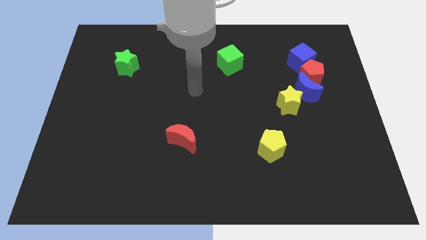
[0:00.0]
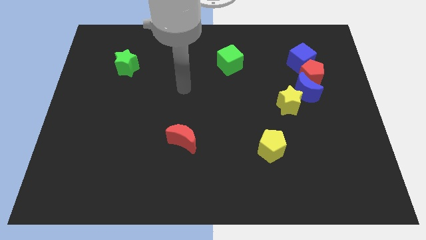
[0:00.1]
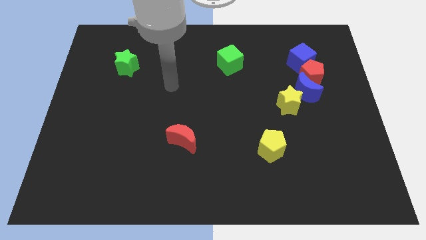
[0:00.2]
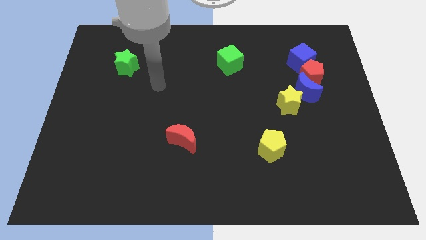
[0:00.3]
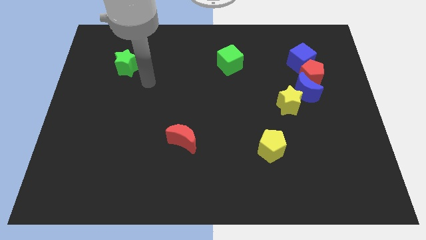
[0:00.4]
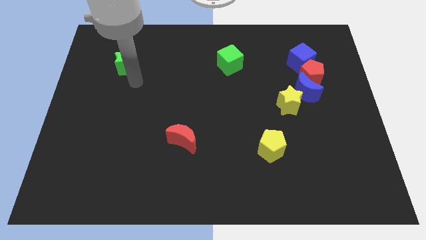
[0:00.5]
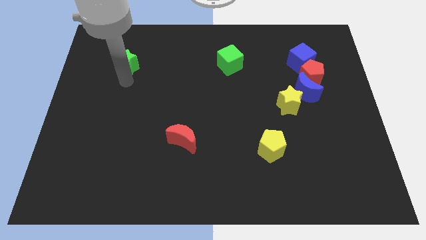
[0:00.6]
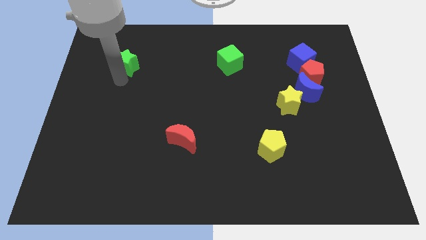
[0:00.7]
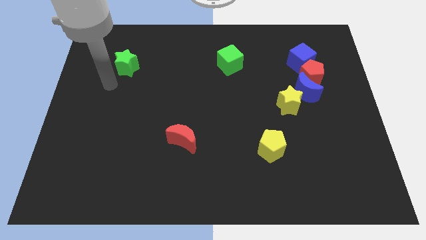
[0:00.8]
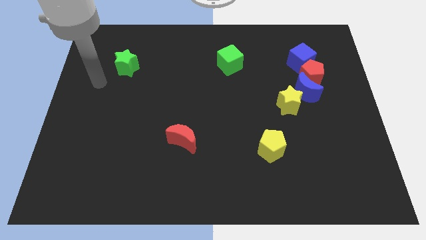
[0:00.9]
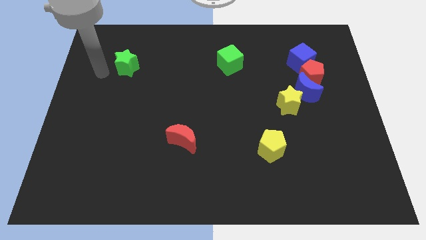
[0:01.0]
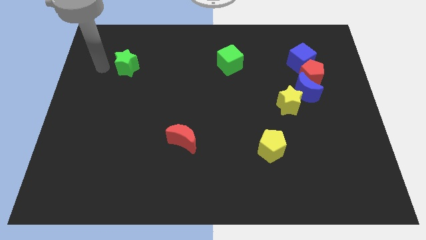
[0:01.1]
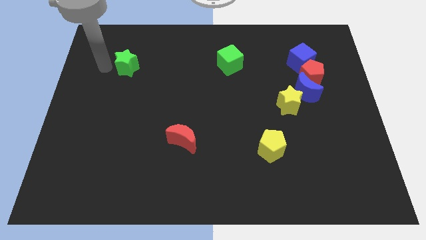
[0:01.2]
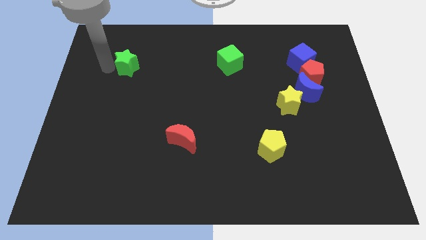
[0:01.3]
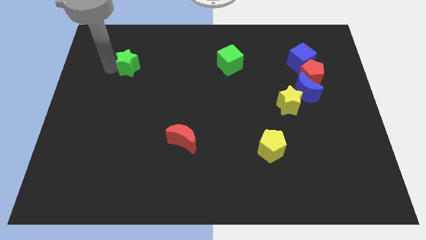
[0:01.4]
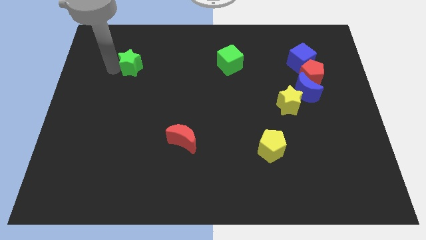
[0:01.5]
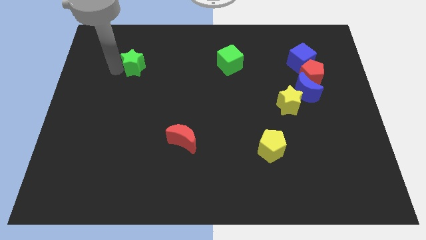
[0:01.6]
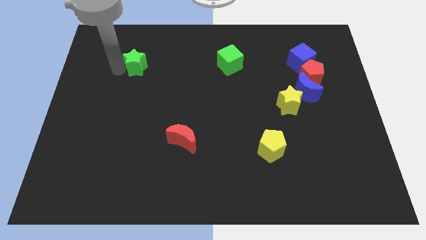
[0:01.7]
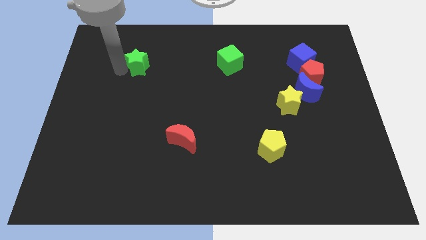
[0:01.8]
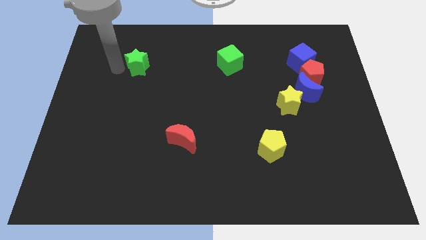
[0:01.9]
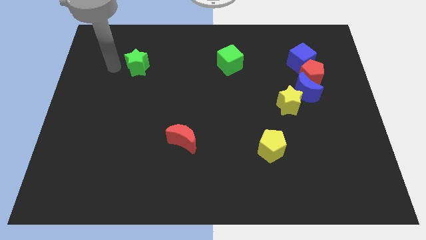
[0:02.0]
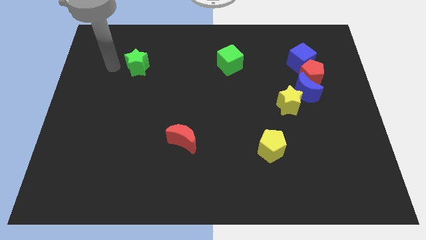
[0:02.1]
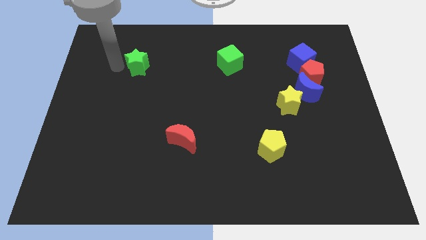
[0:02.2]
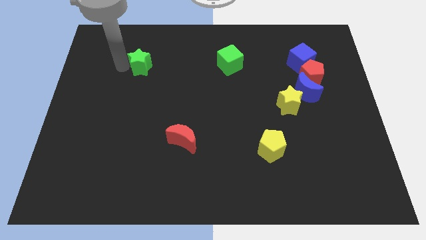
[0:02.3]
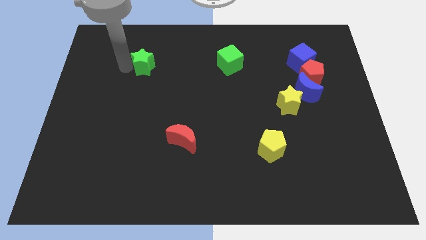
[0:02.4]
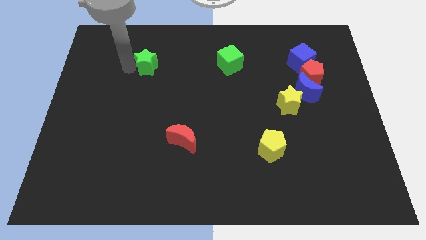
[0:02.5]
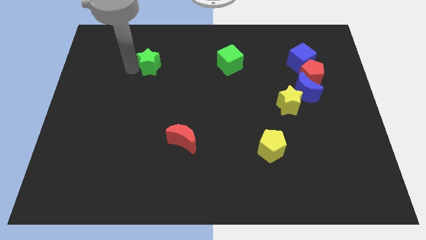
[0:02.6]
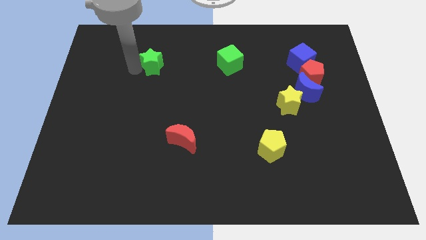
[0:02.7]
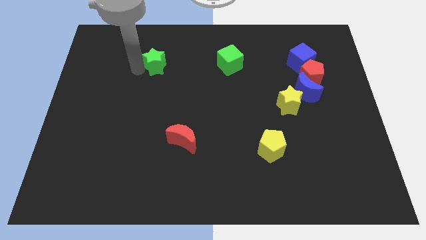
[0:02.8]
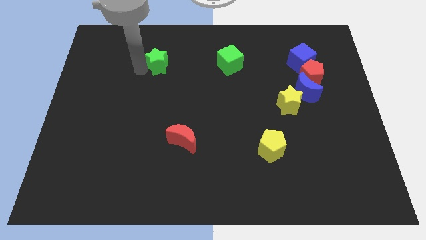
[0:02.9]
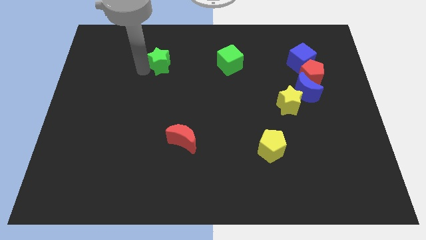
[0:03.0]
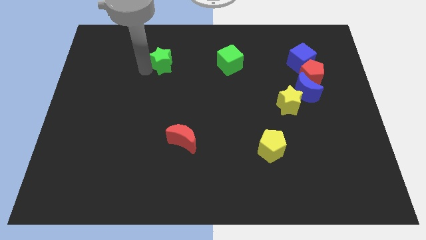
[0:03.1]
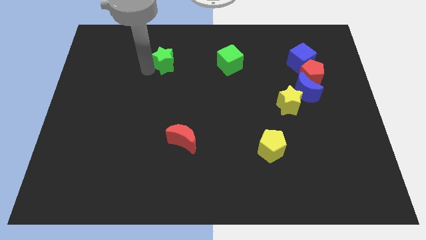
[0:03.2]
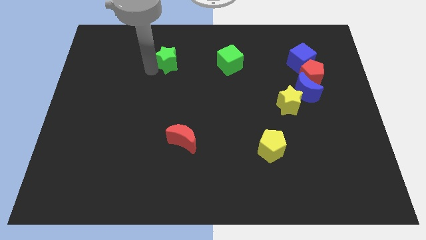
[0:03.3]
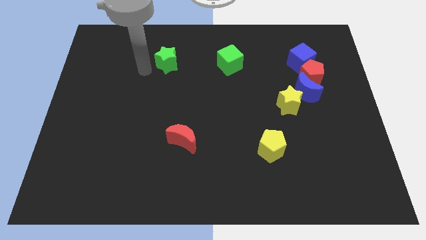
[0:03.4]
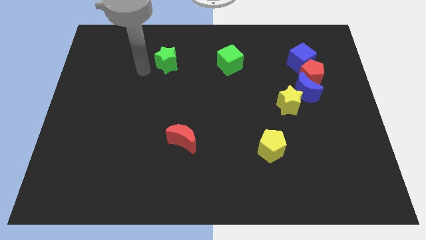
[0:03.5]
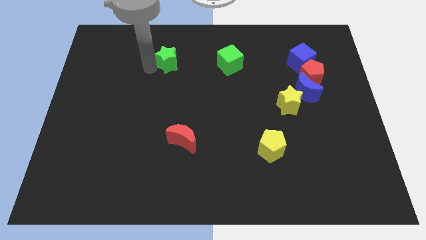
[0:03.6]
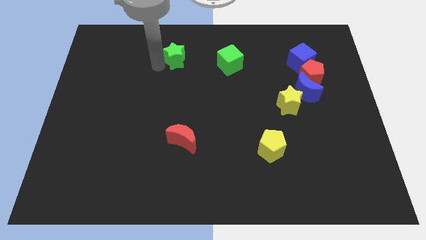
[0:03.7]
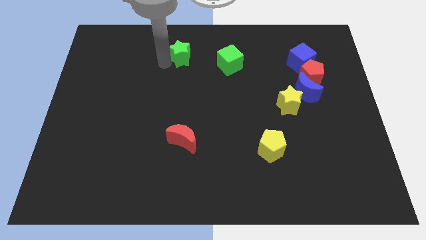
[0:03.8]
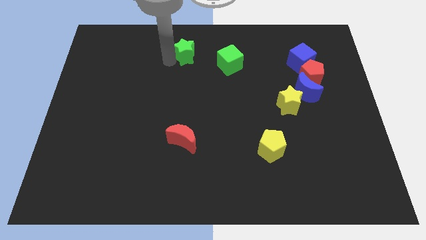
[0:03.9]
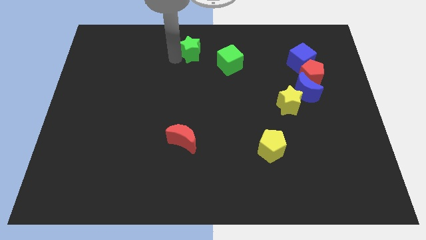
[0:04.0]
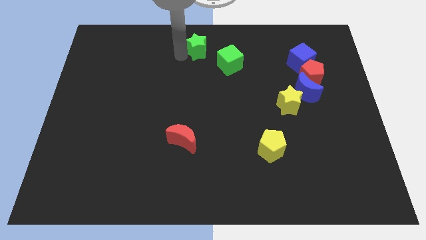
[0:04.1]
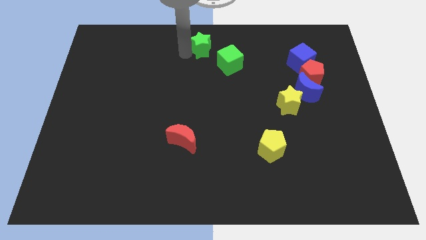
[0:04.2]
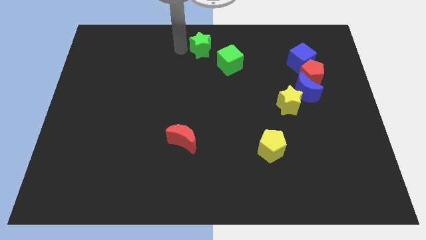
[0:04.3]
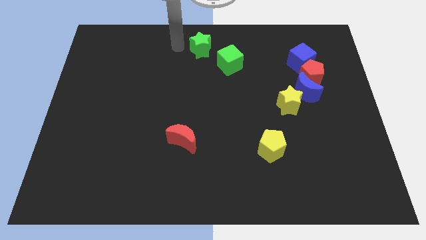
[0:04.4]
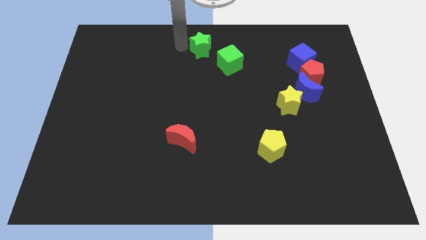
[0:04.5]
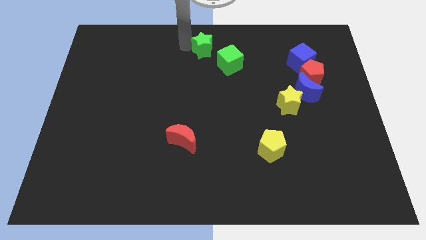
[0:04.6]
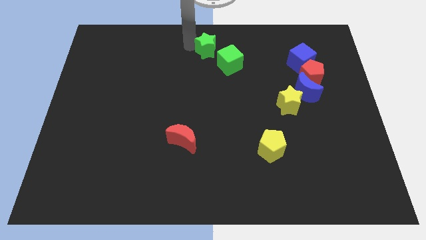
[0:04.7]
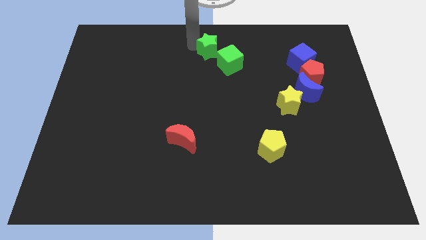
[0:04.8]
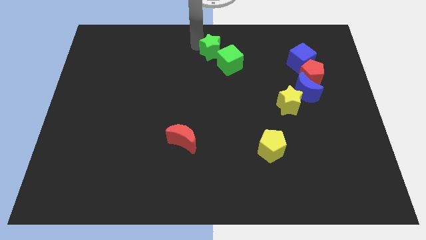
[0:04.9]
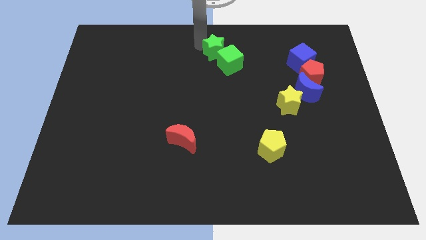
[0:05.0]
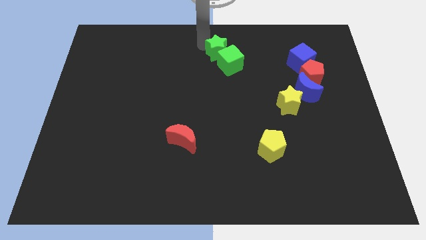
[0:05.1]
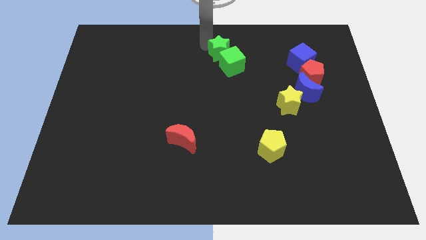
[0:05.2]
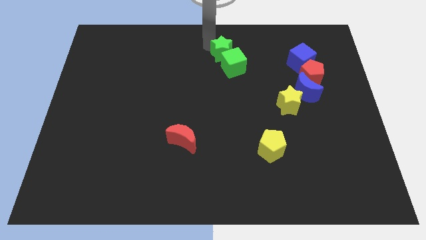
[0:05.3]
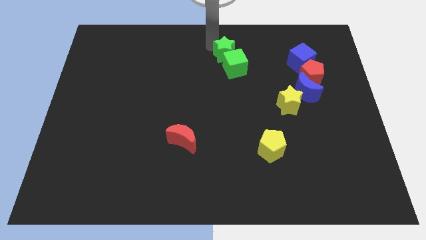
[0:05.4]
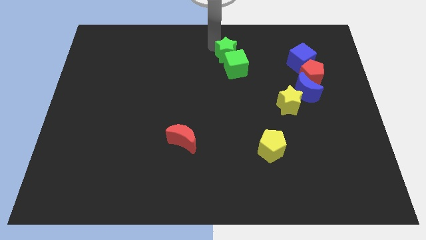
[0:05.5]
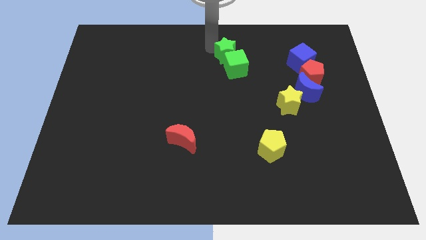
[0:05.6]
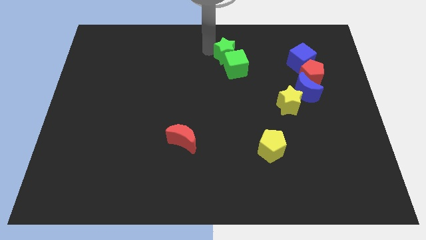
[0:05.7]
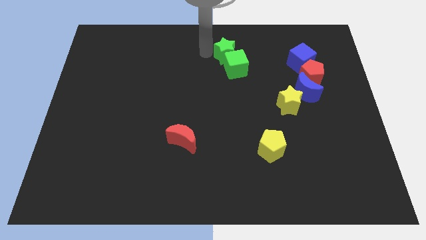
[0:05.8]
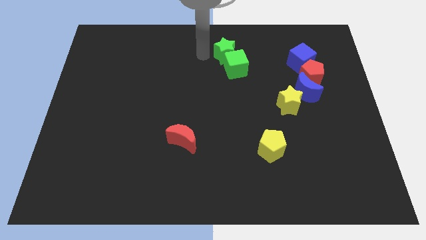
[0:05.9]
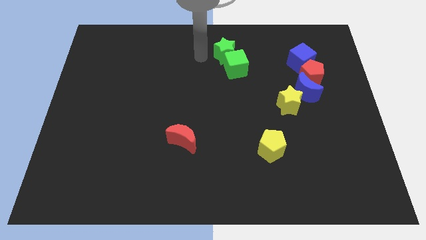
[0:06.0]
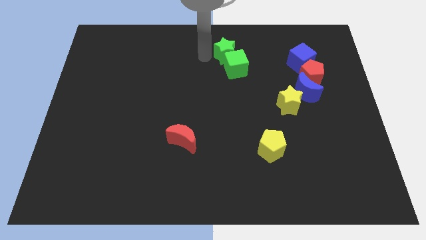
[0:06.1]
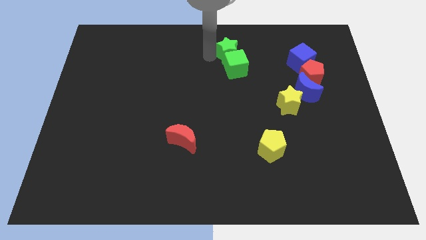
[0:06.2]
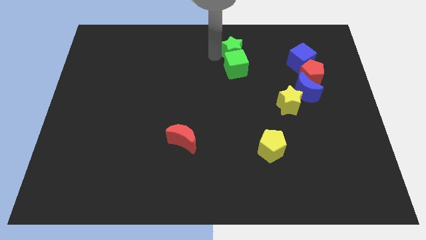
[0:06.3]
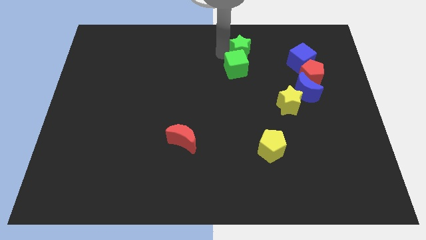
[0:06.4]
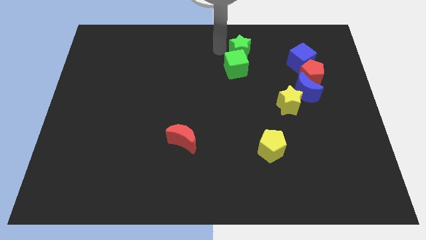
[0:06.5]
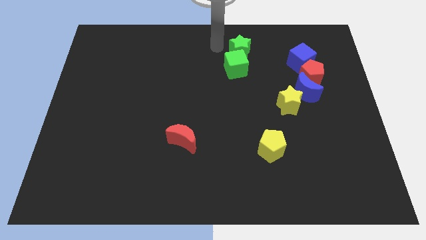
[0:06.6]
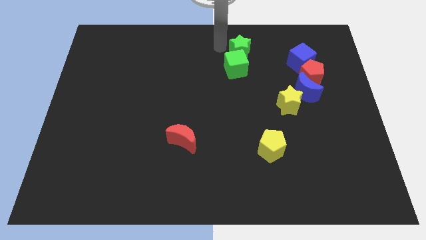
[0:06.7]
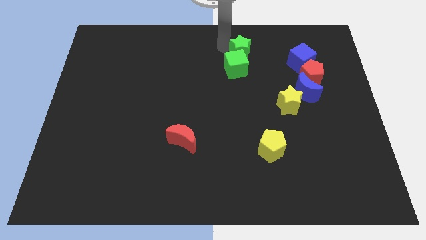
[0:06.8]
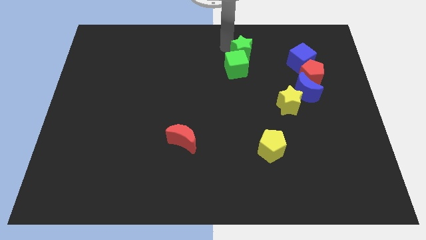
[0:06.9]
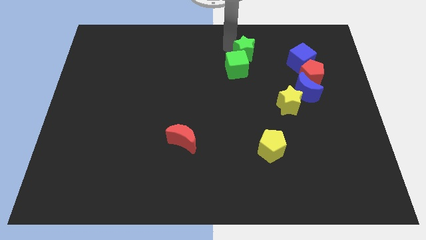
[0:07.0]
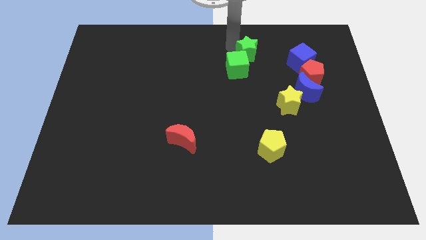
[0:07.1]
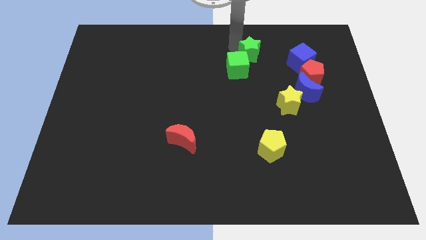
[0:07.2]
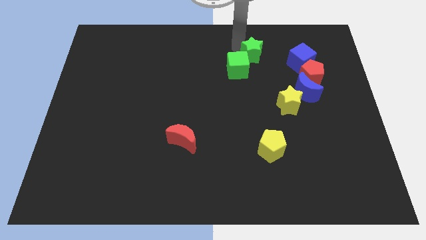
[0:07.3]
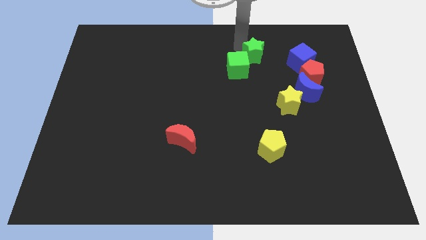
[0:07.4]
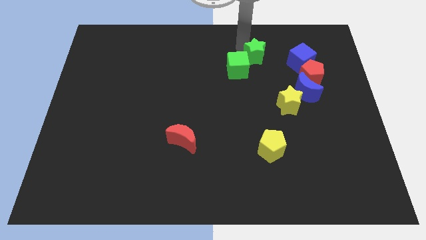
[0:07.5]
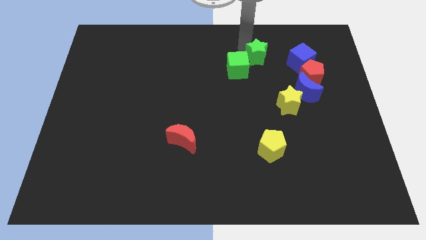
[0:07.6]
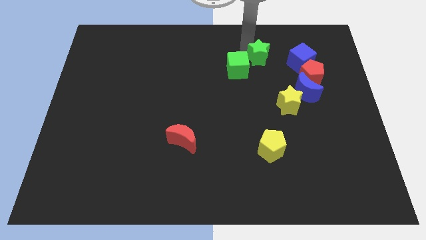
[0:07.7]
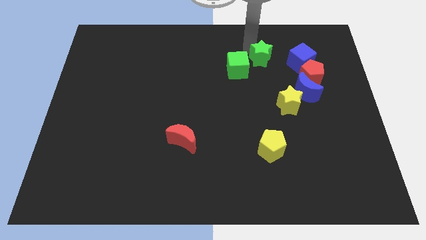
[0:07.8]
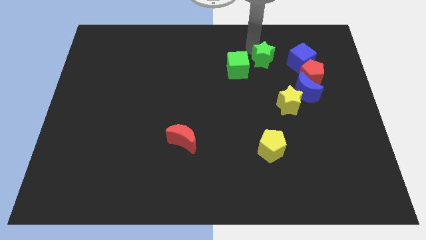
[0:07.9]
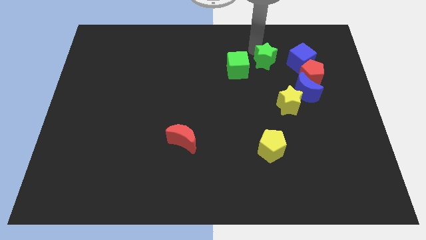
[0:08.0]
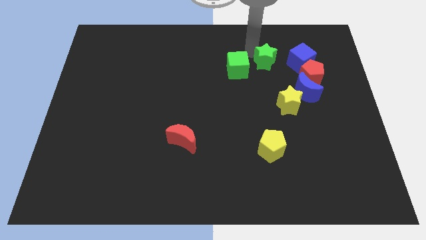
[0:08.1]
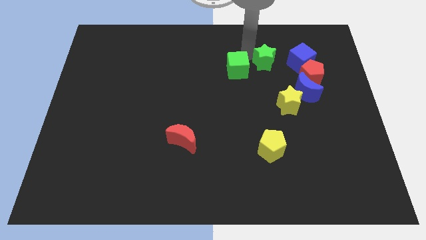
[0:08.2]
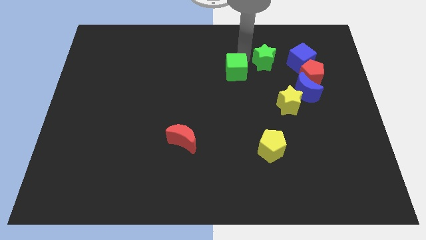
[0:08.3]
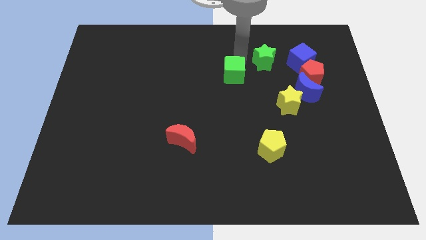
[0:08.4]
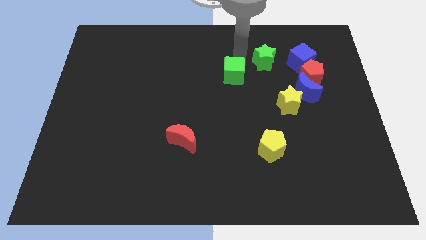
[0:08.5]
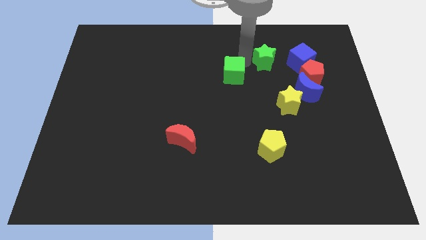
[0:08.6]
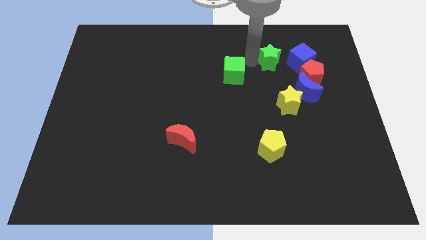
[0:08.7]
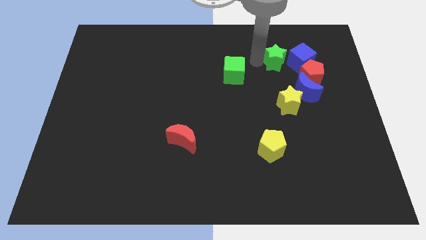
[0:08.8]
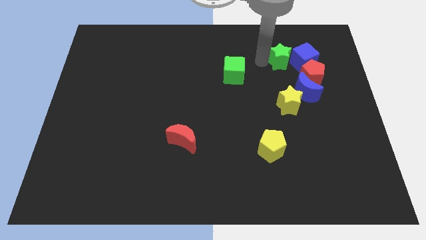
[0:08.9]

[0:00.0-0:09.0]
put the green star to the blue cube
